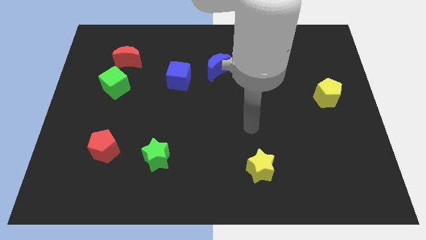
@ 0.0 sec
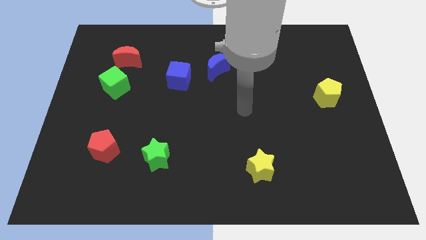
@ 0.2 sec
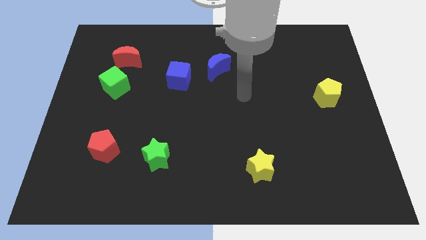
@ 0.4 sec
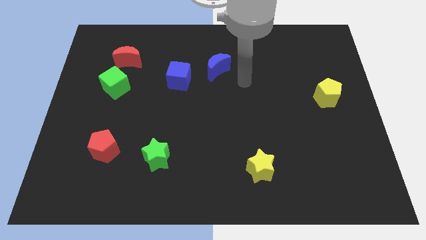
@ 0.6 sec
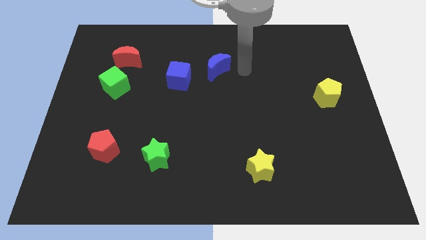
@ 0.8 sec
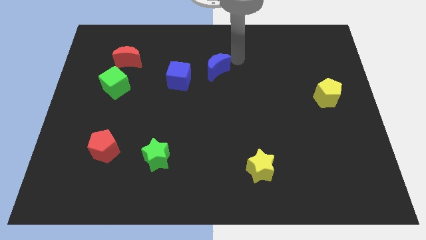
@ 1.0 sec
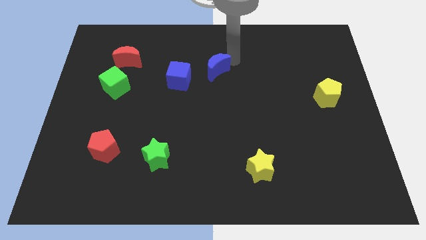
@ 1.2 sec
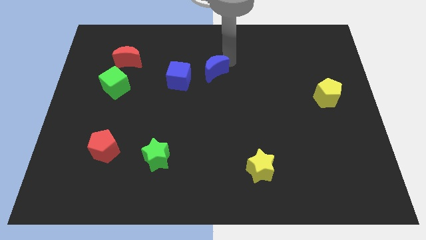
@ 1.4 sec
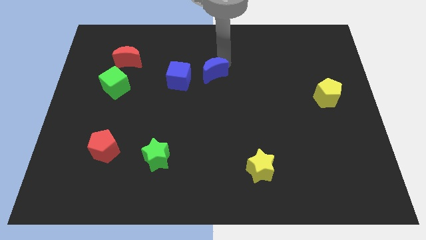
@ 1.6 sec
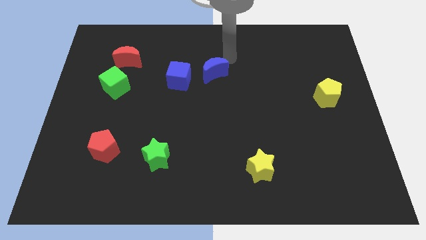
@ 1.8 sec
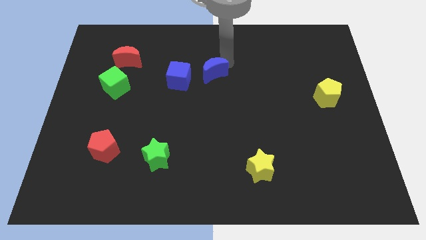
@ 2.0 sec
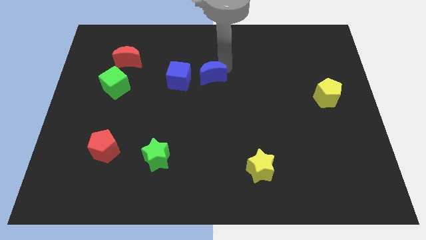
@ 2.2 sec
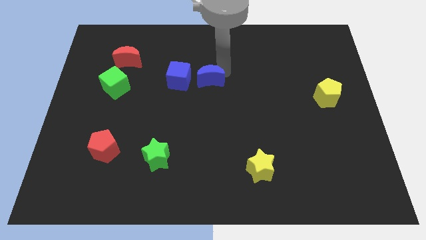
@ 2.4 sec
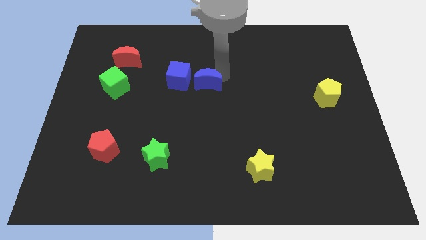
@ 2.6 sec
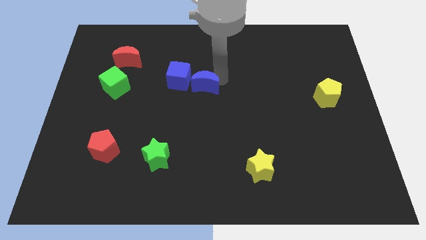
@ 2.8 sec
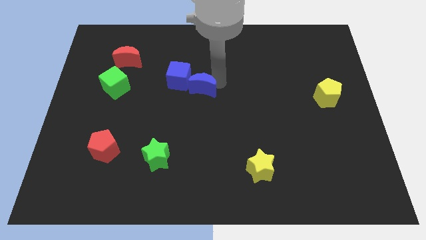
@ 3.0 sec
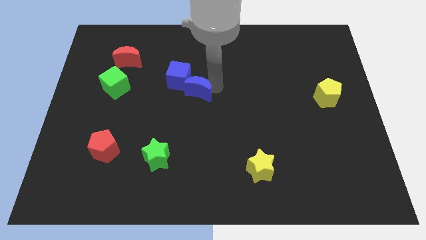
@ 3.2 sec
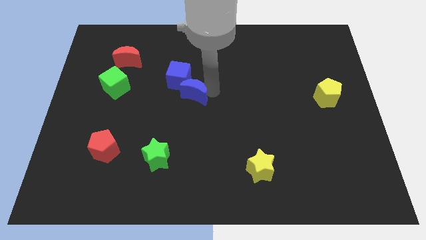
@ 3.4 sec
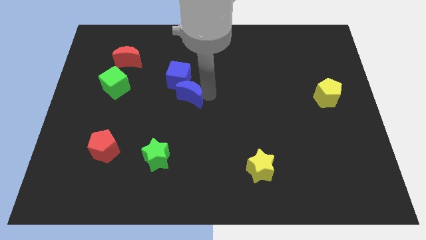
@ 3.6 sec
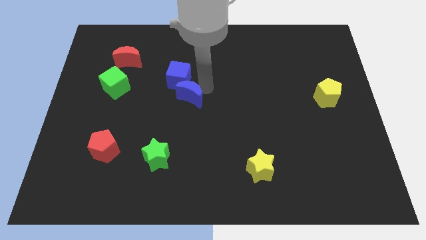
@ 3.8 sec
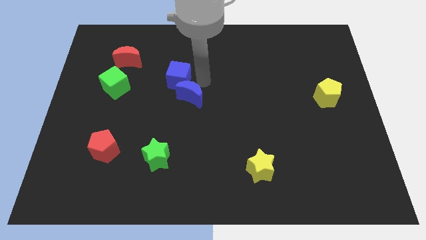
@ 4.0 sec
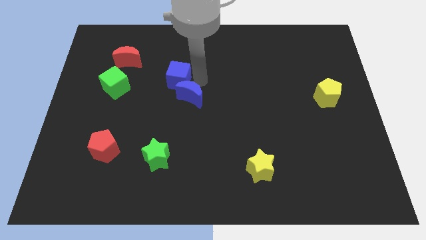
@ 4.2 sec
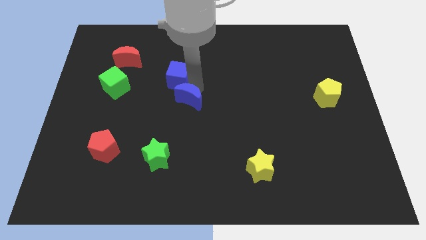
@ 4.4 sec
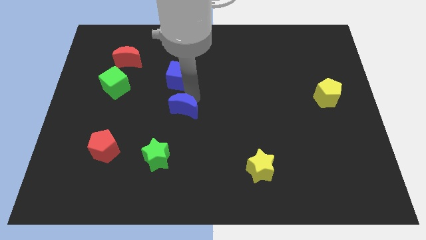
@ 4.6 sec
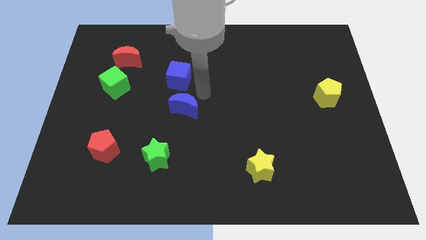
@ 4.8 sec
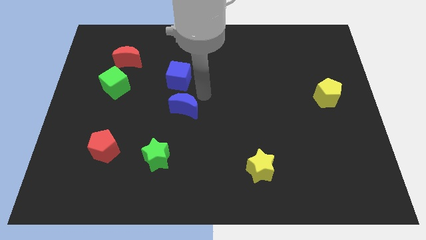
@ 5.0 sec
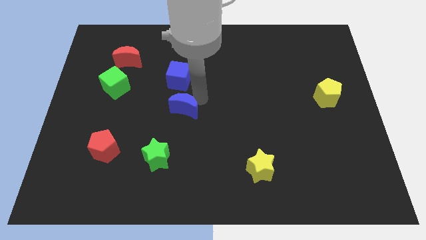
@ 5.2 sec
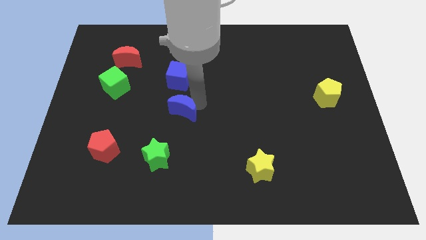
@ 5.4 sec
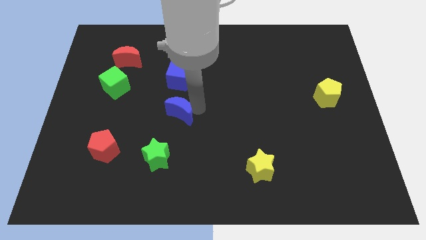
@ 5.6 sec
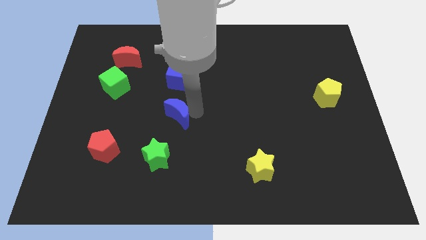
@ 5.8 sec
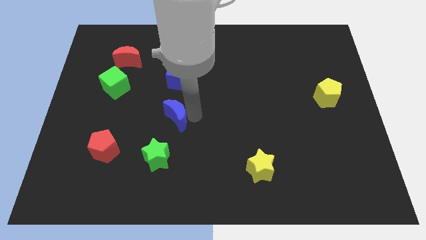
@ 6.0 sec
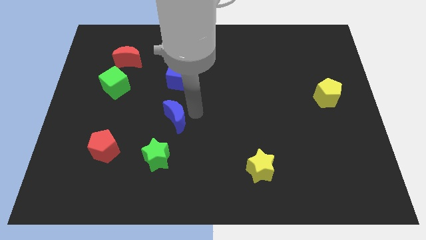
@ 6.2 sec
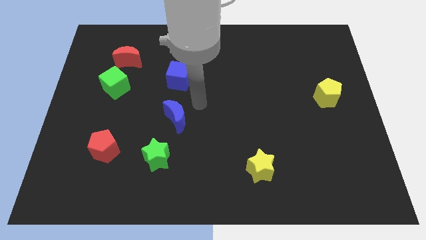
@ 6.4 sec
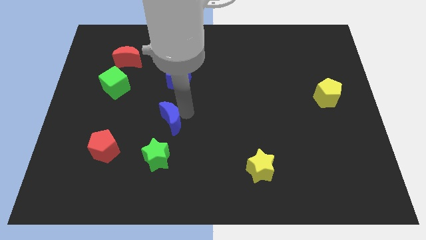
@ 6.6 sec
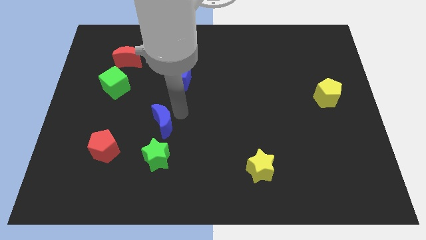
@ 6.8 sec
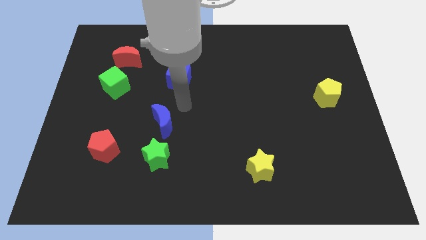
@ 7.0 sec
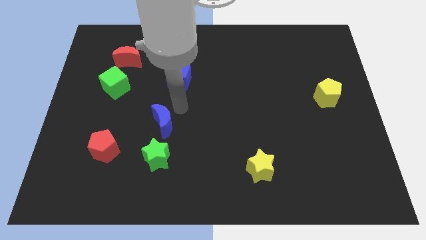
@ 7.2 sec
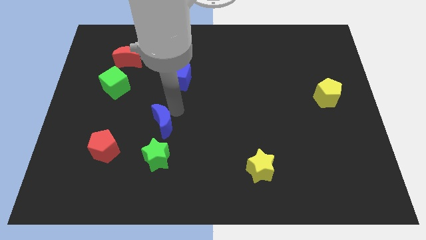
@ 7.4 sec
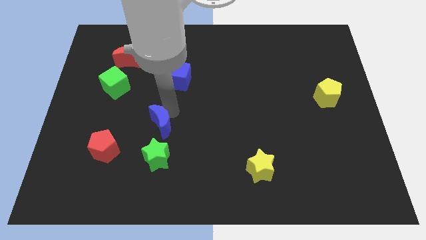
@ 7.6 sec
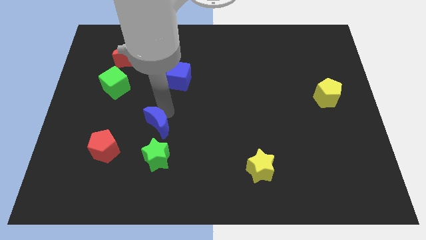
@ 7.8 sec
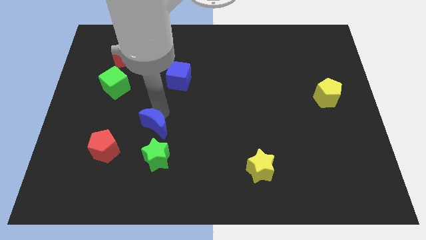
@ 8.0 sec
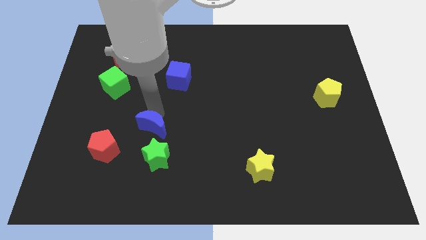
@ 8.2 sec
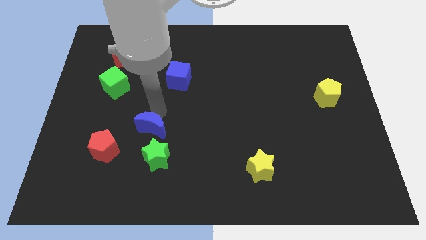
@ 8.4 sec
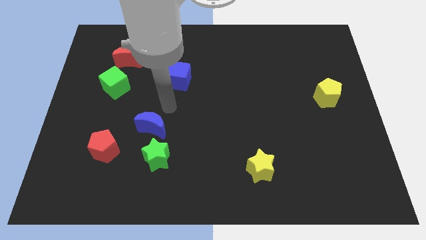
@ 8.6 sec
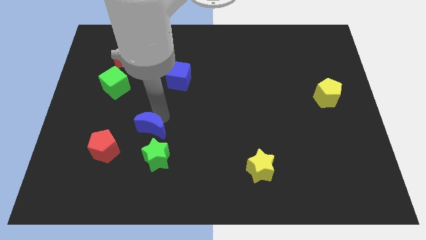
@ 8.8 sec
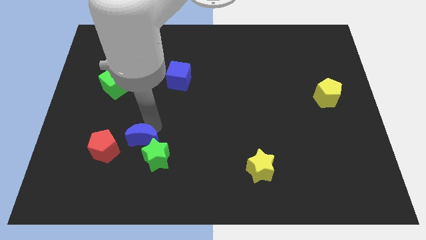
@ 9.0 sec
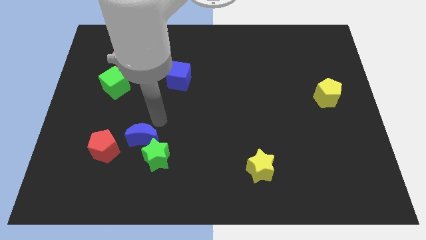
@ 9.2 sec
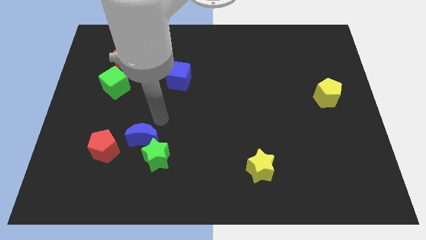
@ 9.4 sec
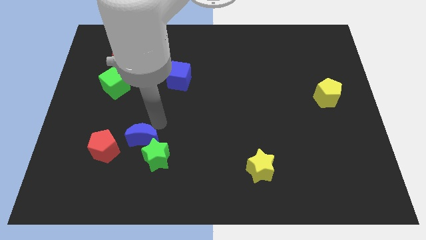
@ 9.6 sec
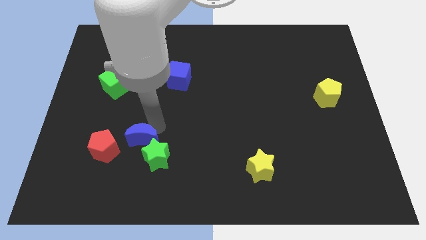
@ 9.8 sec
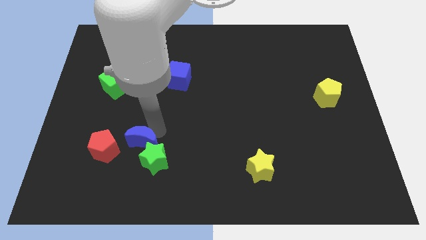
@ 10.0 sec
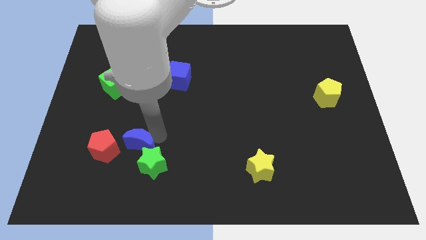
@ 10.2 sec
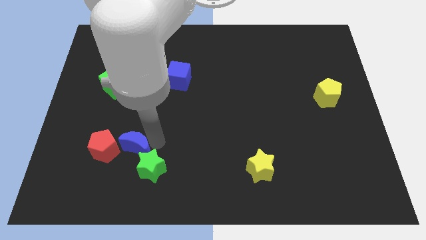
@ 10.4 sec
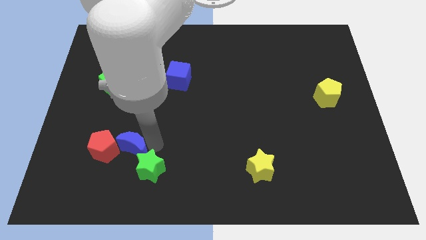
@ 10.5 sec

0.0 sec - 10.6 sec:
slide the blue moon to the bottom right of the red pentagon

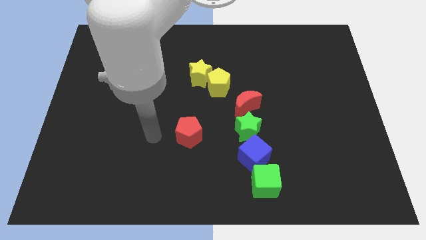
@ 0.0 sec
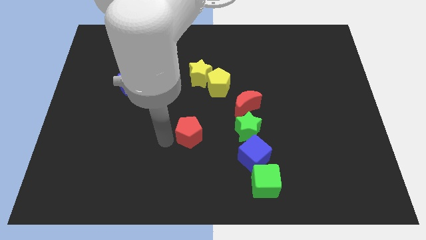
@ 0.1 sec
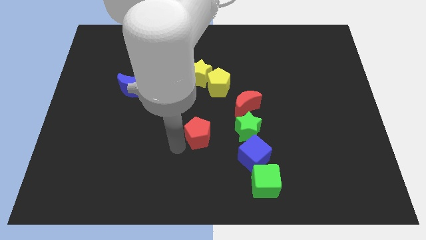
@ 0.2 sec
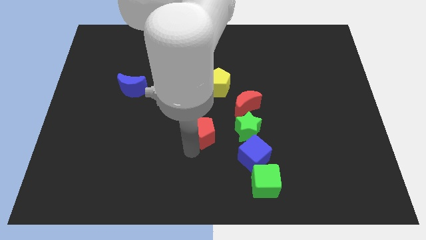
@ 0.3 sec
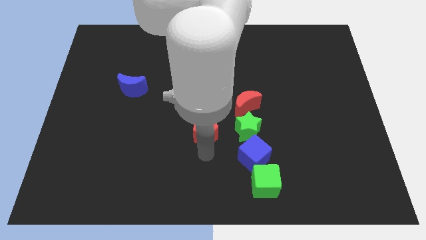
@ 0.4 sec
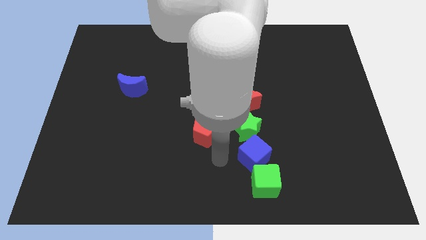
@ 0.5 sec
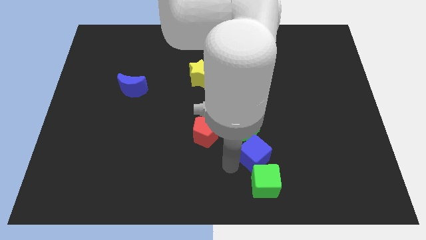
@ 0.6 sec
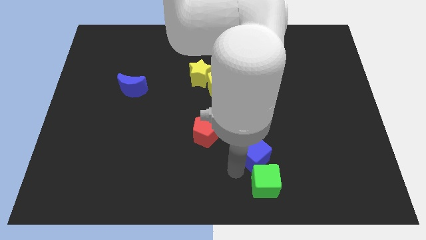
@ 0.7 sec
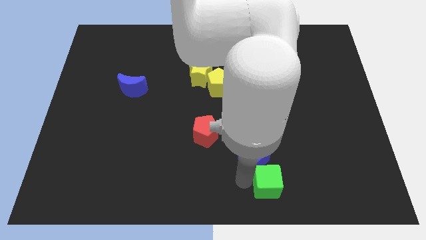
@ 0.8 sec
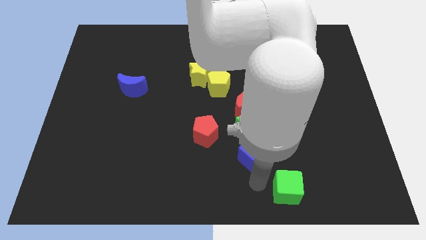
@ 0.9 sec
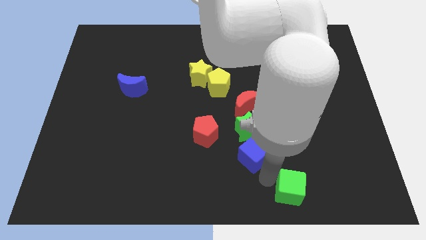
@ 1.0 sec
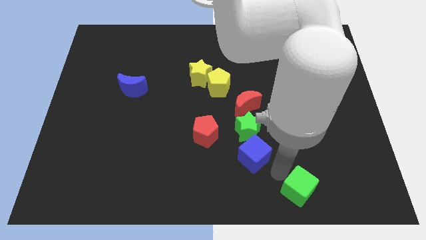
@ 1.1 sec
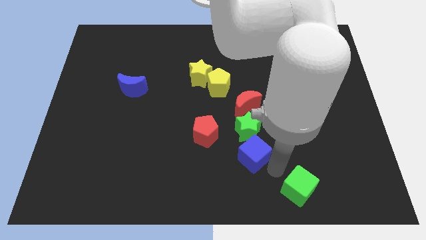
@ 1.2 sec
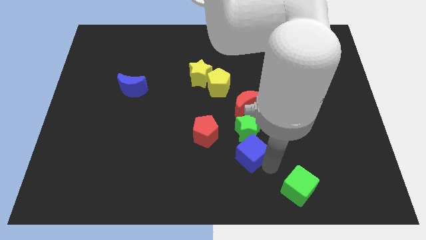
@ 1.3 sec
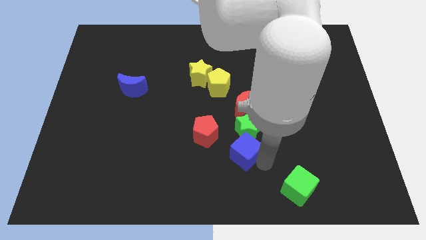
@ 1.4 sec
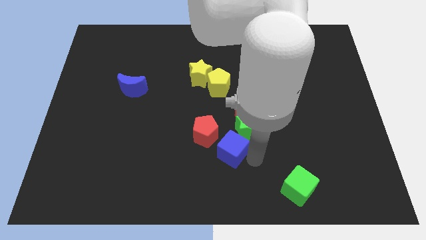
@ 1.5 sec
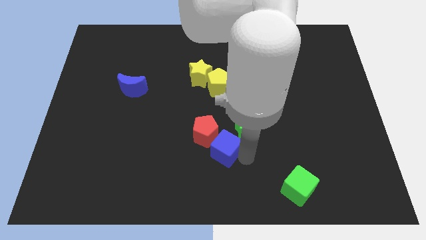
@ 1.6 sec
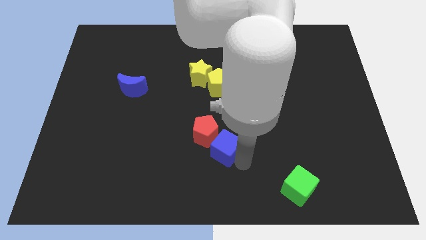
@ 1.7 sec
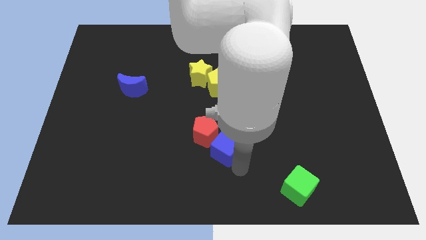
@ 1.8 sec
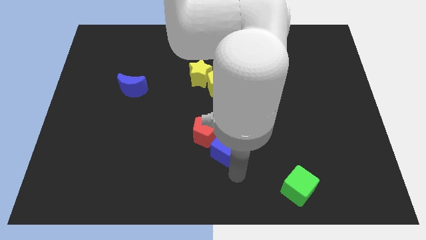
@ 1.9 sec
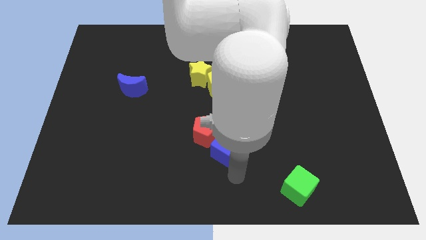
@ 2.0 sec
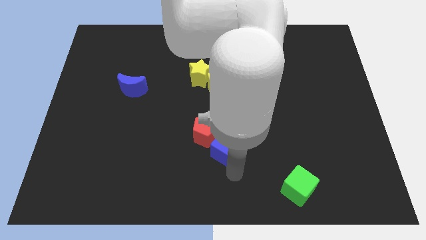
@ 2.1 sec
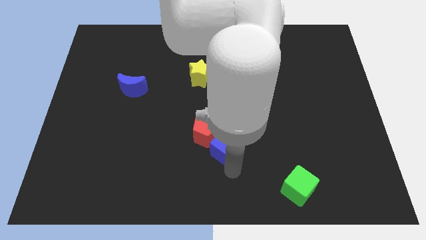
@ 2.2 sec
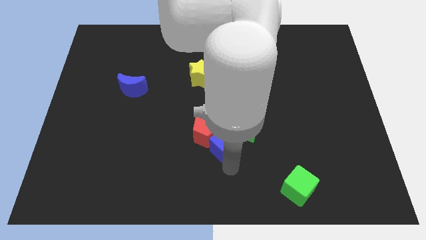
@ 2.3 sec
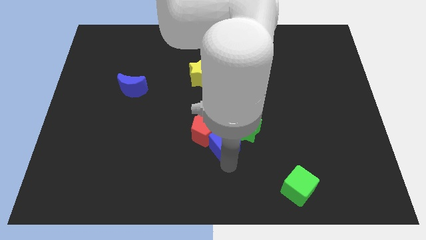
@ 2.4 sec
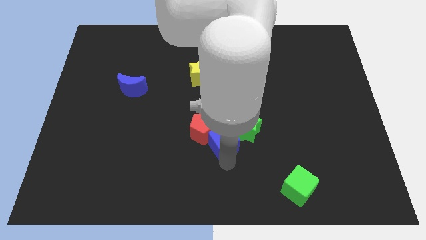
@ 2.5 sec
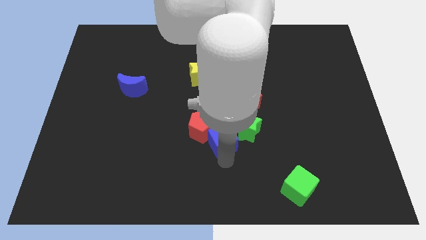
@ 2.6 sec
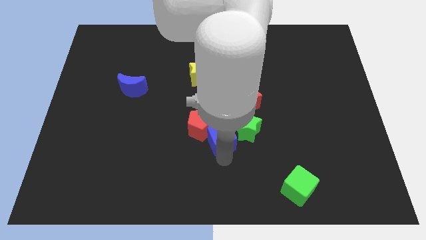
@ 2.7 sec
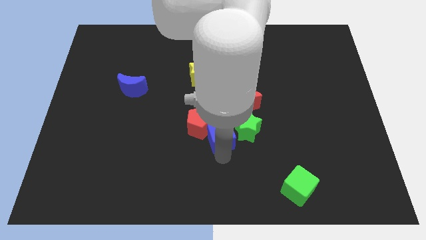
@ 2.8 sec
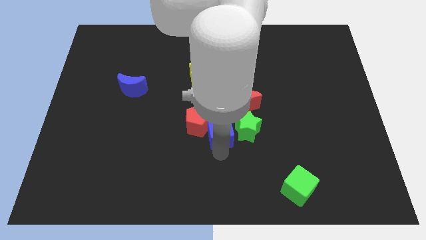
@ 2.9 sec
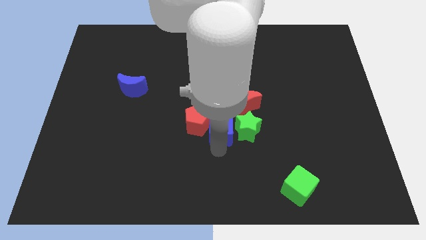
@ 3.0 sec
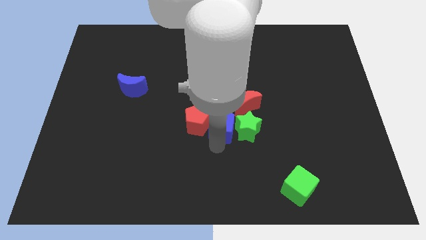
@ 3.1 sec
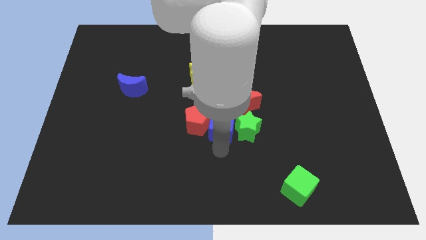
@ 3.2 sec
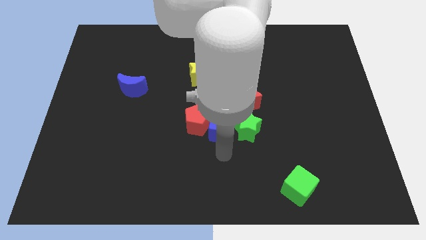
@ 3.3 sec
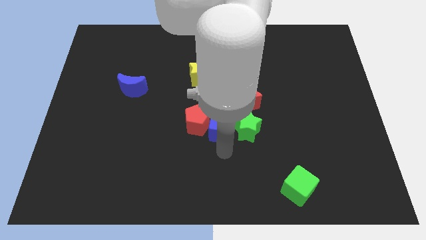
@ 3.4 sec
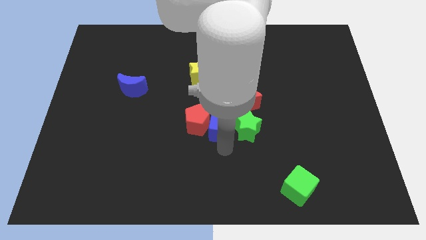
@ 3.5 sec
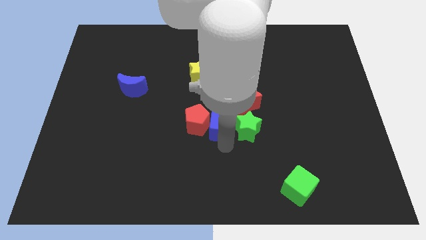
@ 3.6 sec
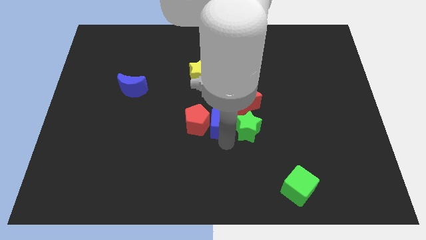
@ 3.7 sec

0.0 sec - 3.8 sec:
put the blue cube diagonally up and to the right of the red pentagon
